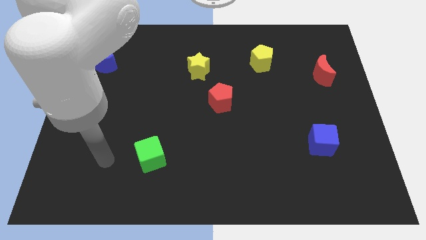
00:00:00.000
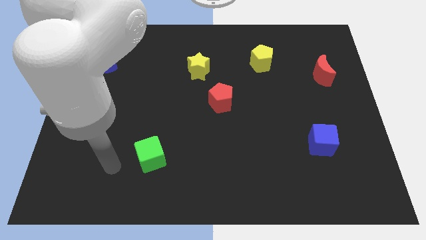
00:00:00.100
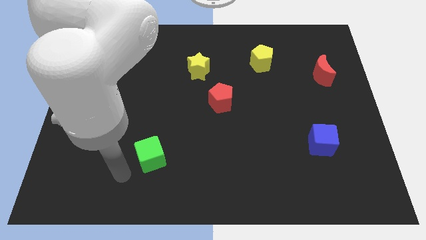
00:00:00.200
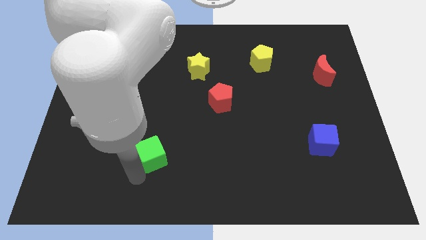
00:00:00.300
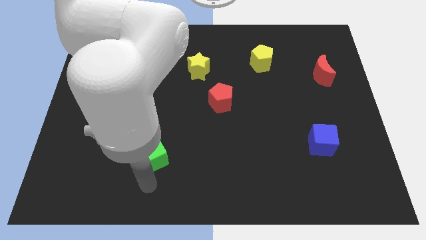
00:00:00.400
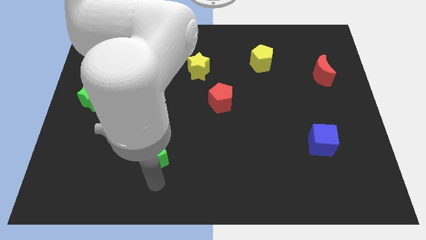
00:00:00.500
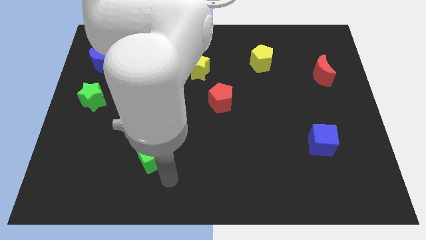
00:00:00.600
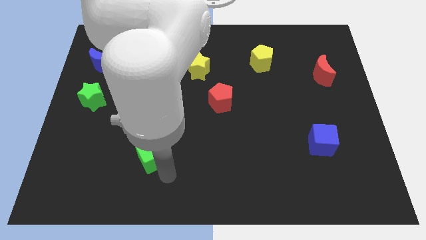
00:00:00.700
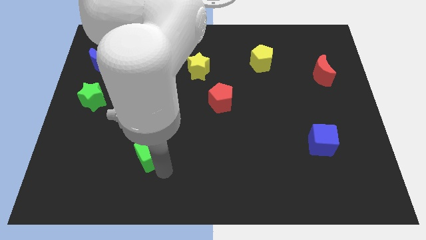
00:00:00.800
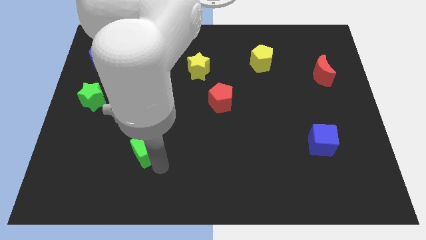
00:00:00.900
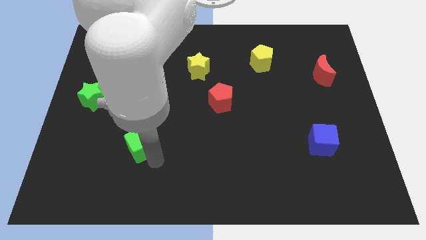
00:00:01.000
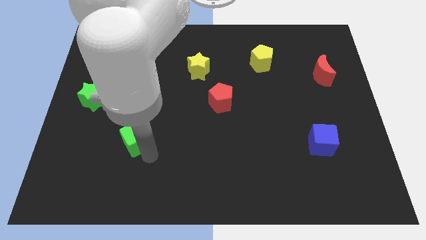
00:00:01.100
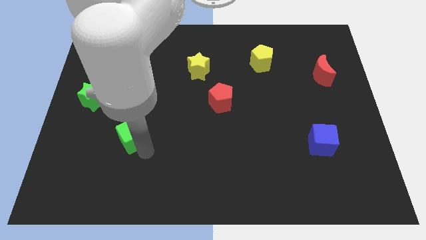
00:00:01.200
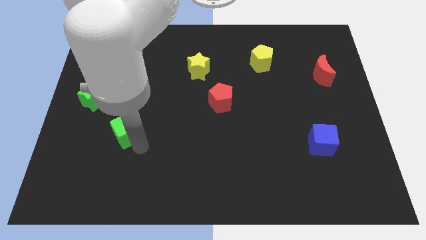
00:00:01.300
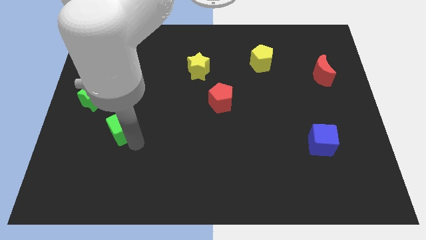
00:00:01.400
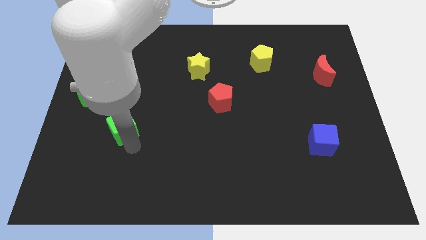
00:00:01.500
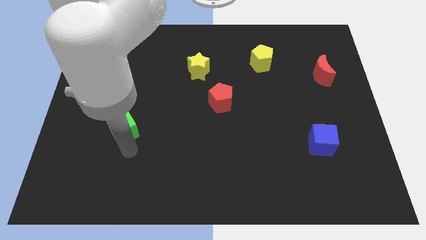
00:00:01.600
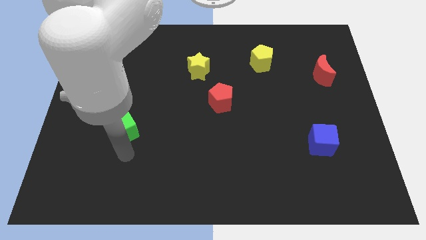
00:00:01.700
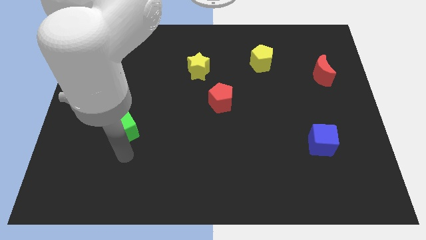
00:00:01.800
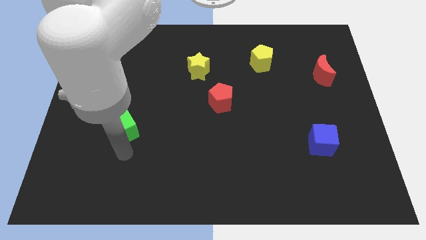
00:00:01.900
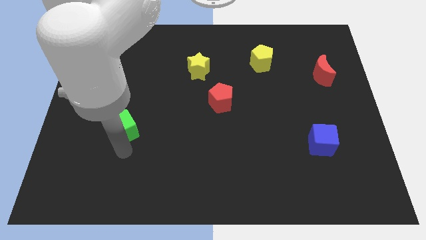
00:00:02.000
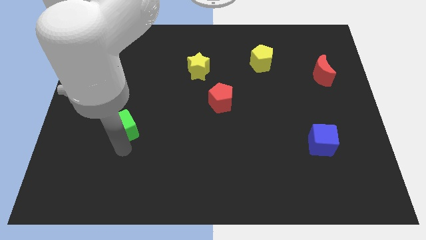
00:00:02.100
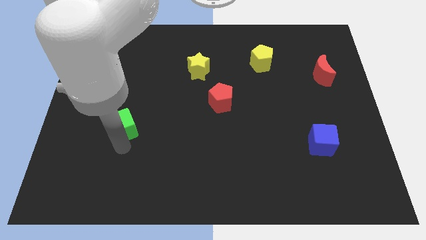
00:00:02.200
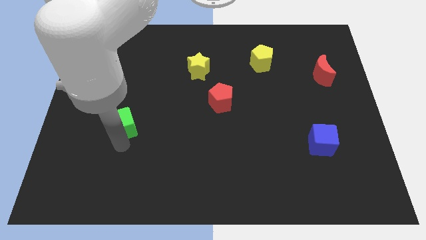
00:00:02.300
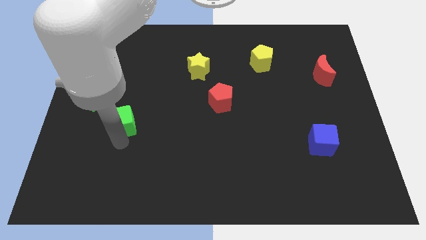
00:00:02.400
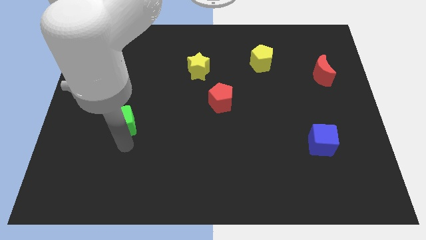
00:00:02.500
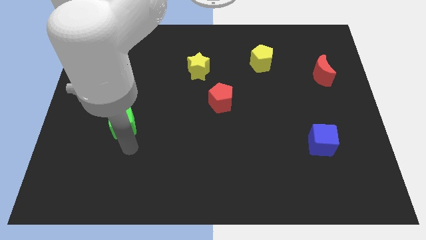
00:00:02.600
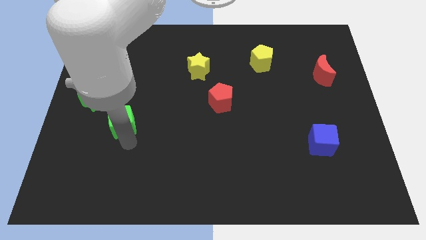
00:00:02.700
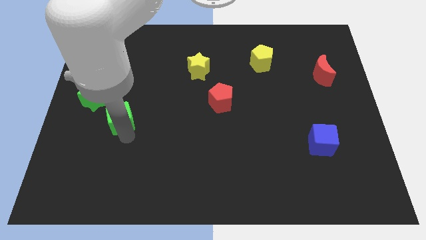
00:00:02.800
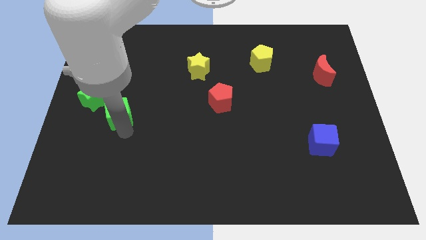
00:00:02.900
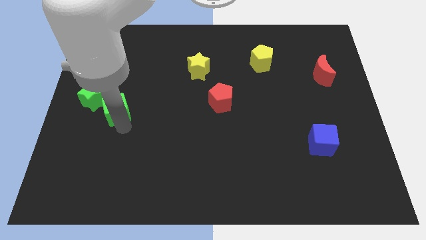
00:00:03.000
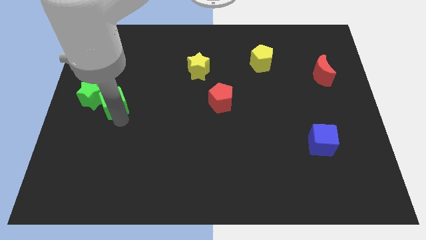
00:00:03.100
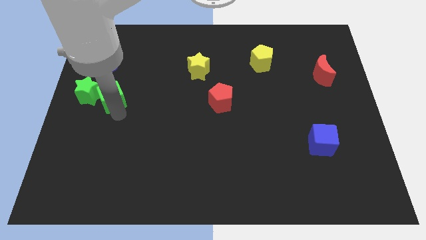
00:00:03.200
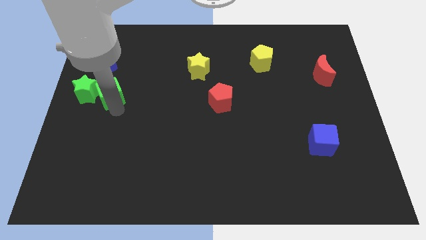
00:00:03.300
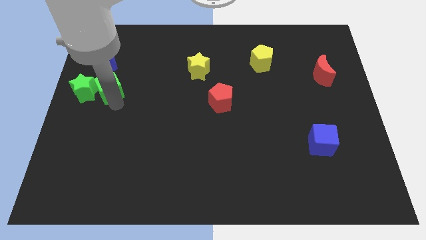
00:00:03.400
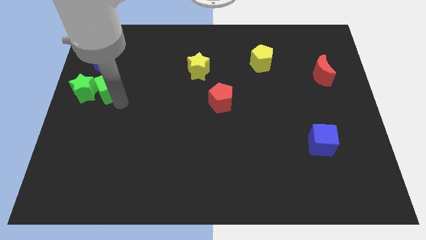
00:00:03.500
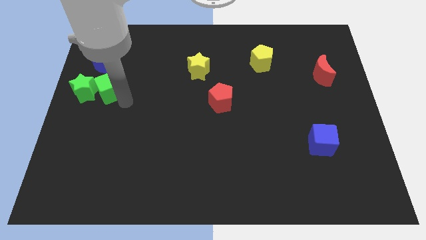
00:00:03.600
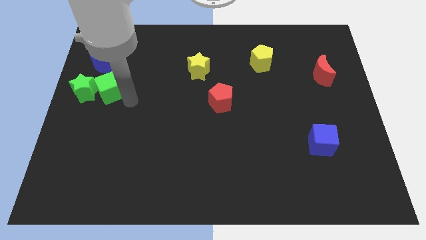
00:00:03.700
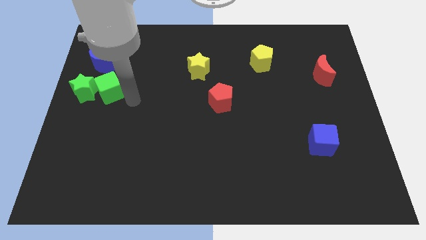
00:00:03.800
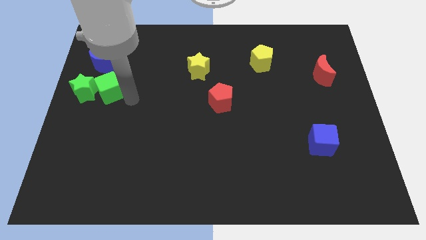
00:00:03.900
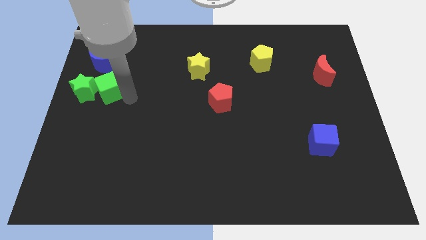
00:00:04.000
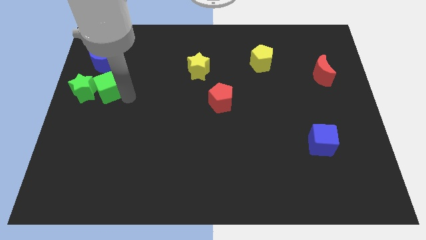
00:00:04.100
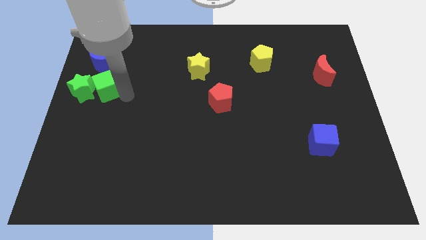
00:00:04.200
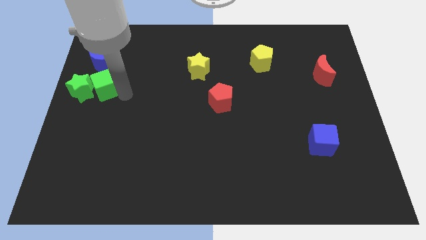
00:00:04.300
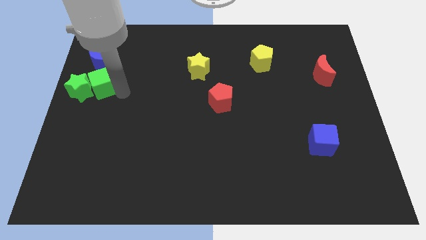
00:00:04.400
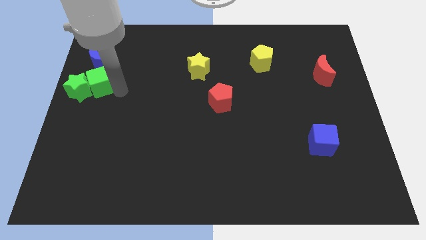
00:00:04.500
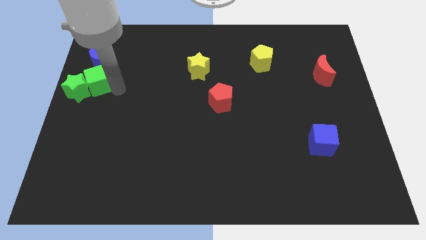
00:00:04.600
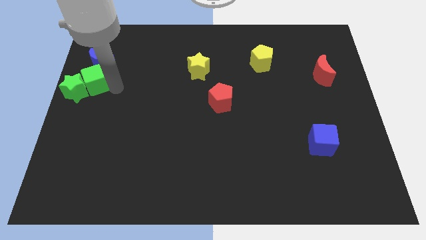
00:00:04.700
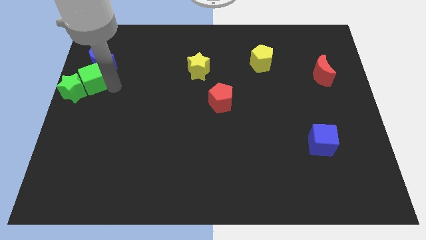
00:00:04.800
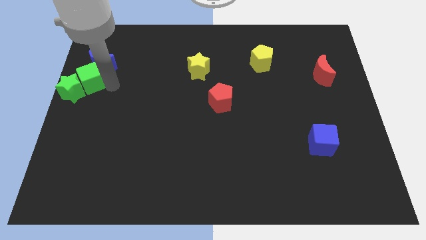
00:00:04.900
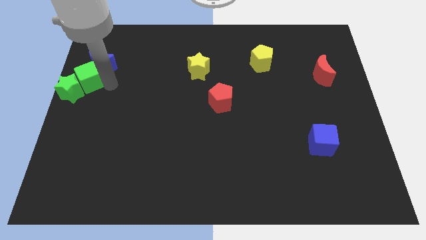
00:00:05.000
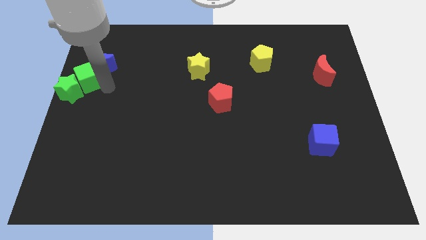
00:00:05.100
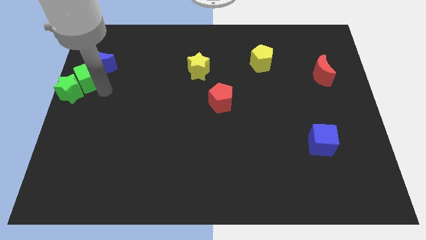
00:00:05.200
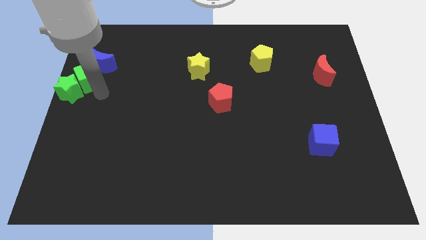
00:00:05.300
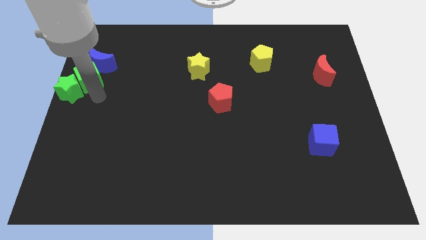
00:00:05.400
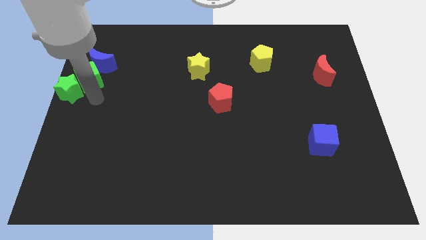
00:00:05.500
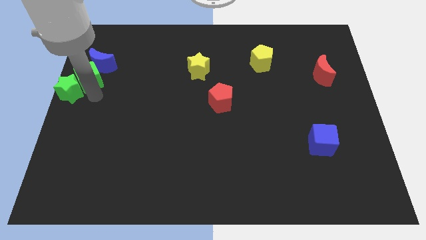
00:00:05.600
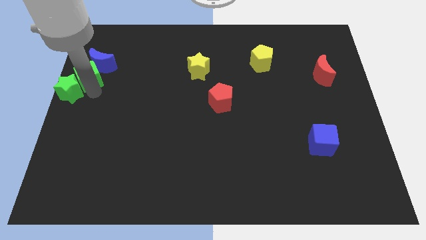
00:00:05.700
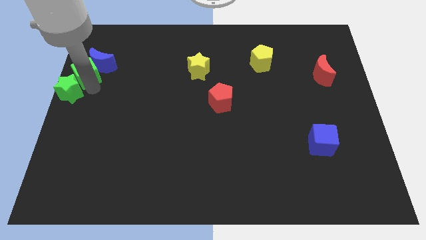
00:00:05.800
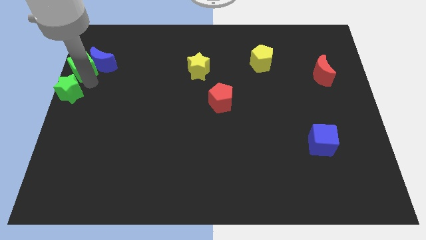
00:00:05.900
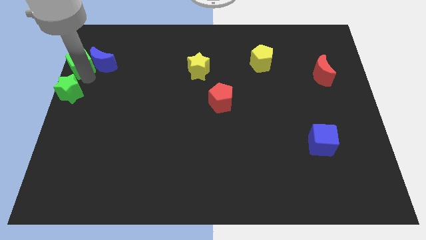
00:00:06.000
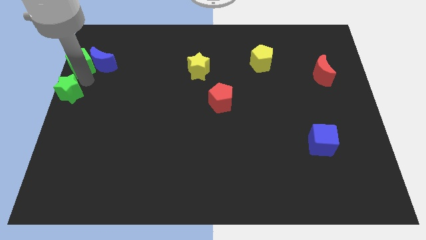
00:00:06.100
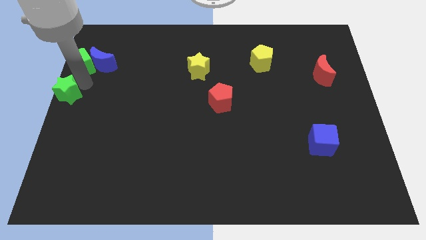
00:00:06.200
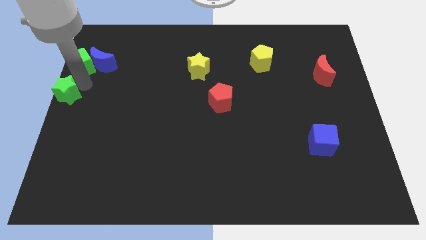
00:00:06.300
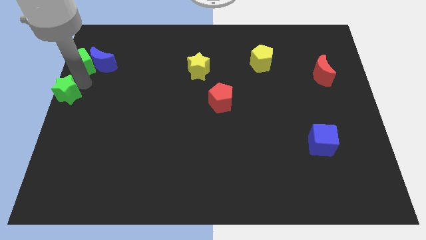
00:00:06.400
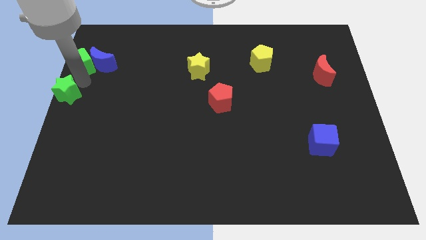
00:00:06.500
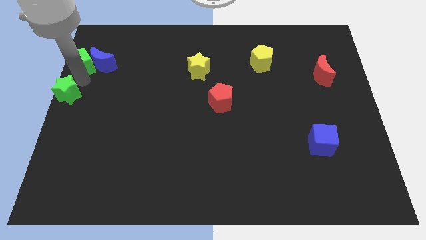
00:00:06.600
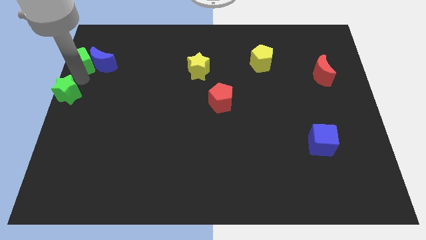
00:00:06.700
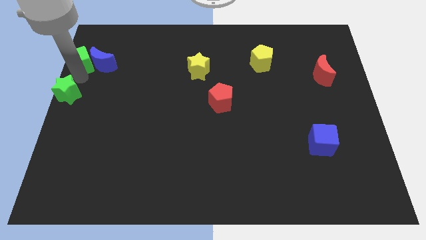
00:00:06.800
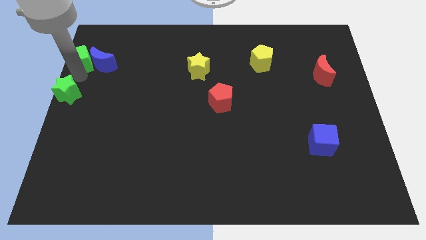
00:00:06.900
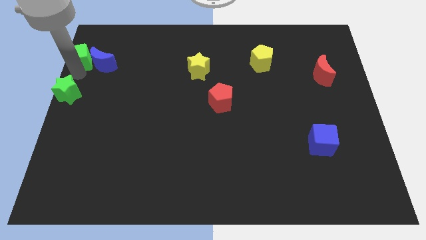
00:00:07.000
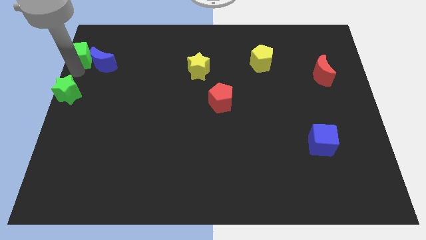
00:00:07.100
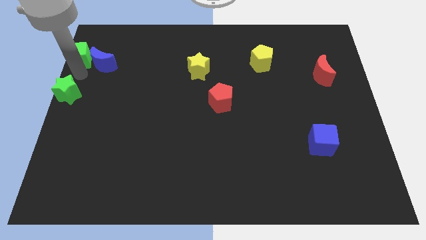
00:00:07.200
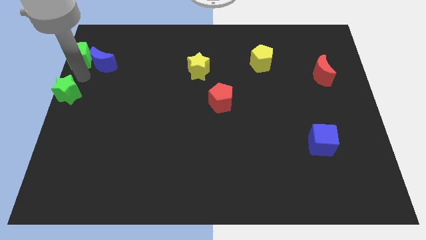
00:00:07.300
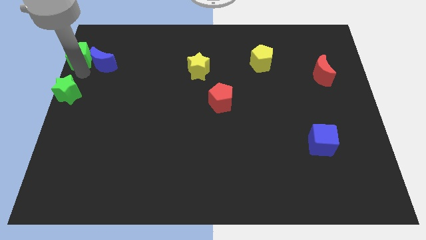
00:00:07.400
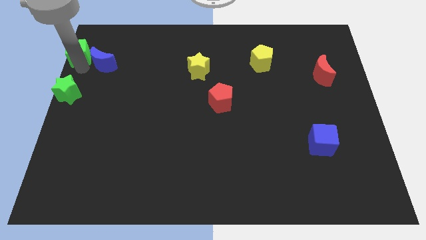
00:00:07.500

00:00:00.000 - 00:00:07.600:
put the green cube to the top left
